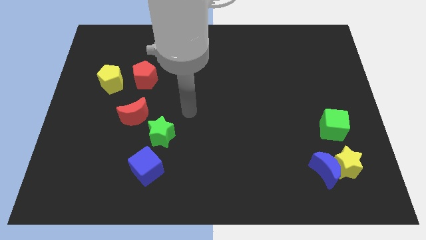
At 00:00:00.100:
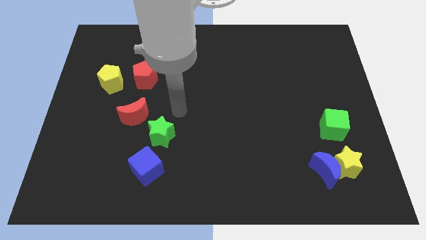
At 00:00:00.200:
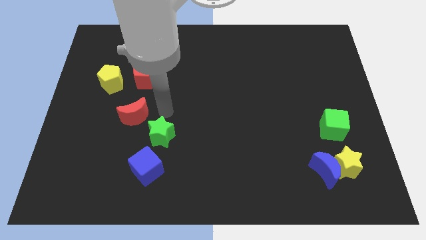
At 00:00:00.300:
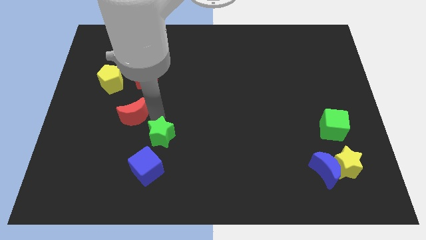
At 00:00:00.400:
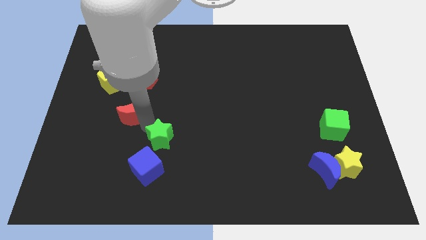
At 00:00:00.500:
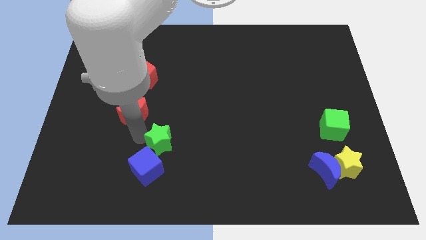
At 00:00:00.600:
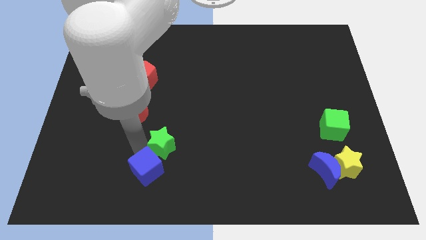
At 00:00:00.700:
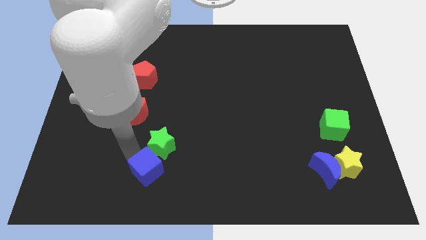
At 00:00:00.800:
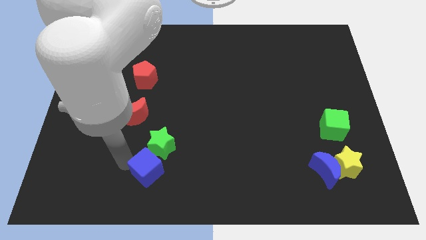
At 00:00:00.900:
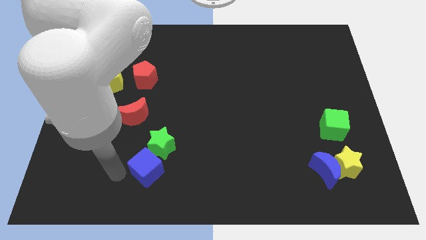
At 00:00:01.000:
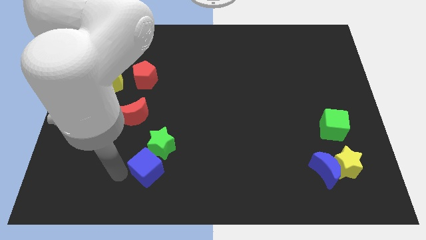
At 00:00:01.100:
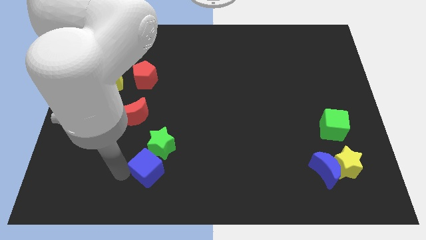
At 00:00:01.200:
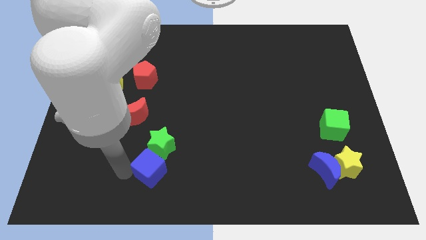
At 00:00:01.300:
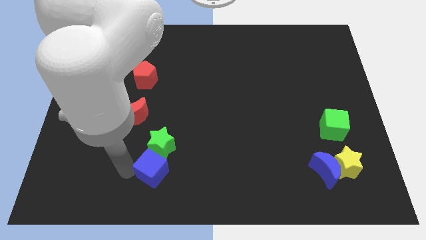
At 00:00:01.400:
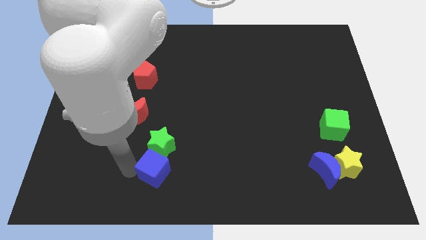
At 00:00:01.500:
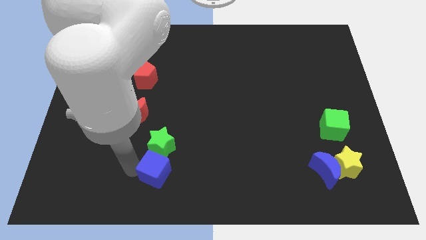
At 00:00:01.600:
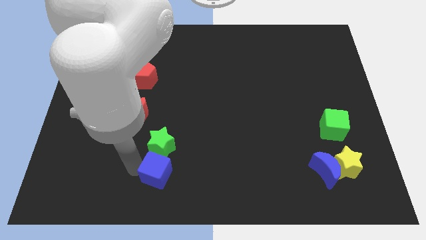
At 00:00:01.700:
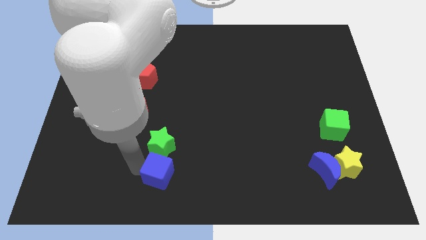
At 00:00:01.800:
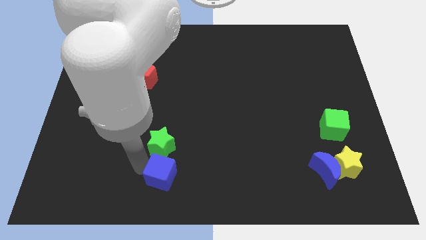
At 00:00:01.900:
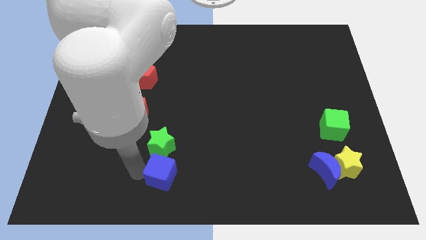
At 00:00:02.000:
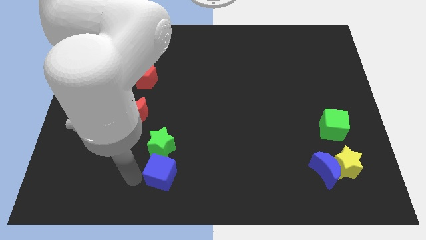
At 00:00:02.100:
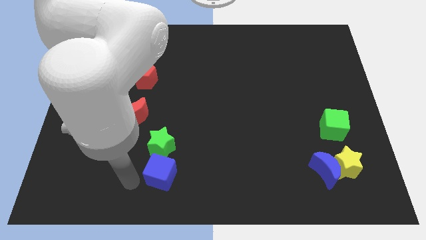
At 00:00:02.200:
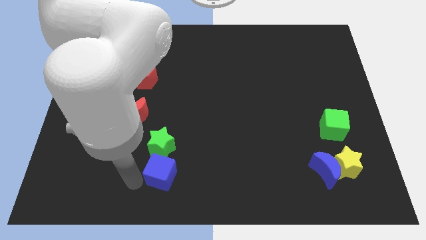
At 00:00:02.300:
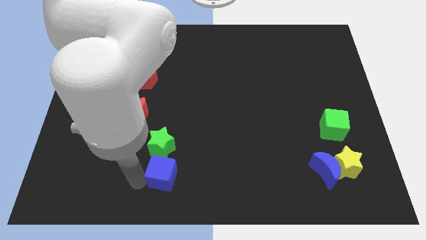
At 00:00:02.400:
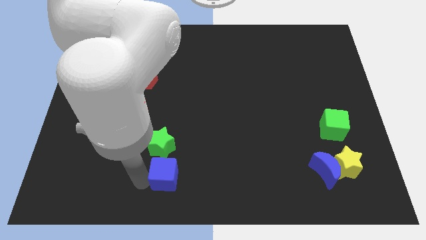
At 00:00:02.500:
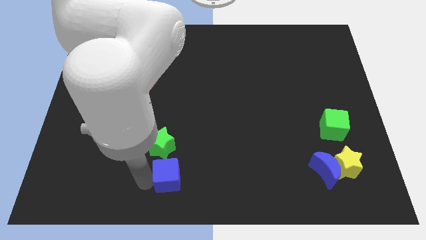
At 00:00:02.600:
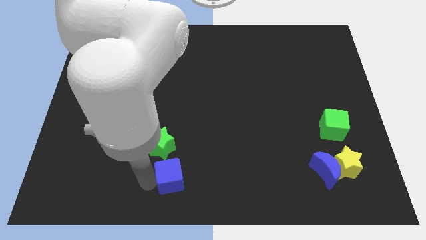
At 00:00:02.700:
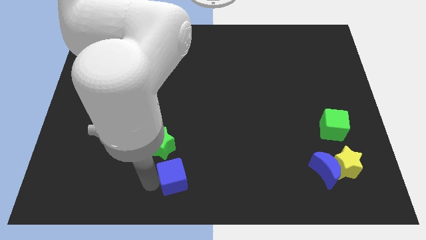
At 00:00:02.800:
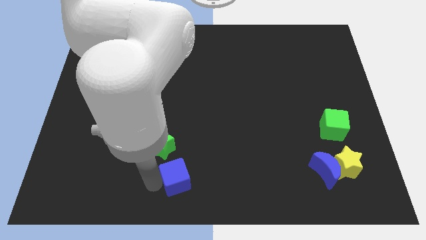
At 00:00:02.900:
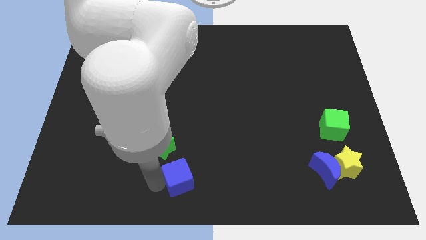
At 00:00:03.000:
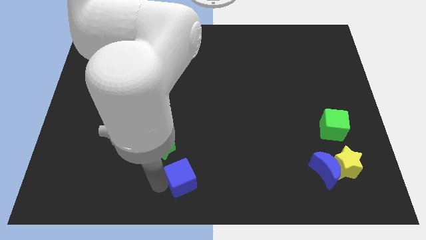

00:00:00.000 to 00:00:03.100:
move the blue cube slightly to the right

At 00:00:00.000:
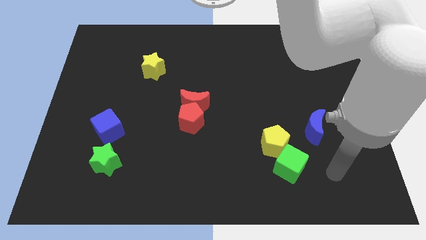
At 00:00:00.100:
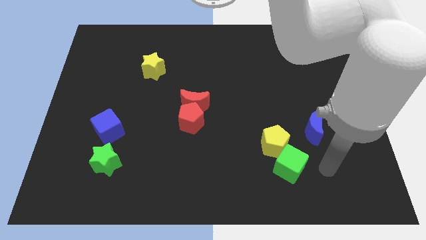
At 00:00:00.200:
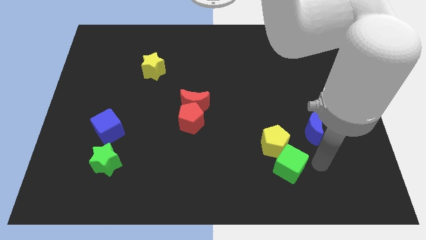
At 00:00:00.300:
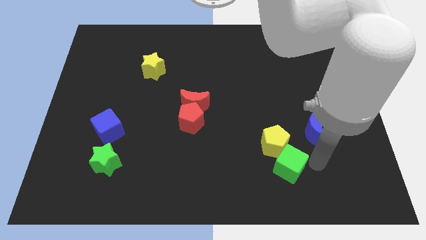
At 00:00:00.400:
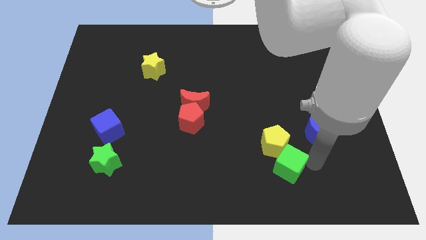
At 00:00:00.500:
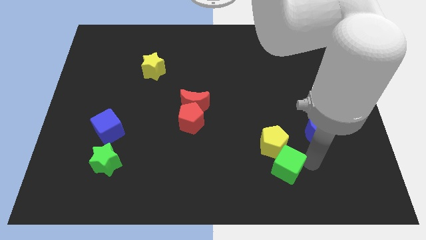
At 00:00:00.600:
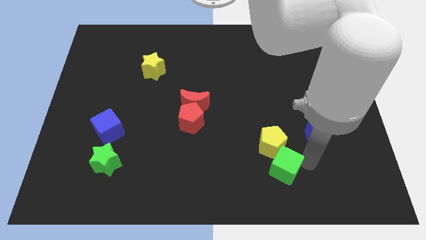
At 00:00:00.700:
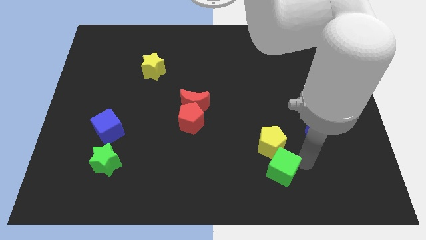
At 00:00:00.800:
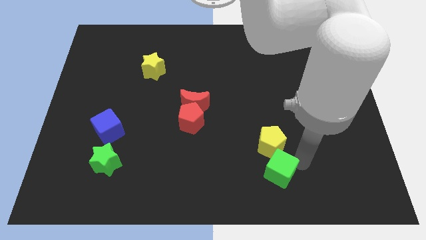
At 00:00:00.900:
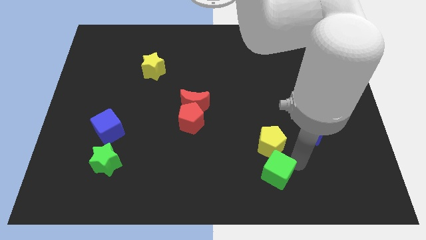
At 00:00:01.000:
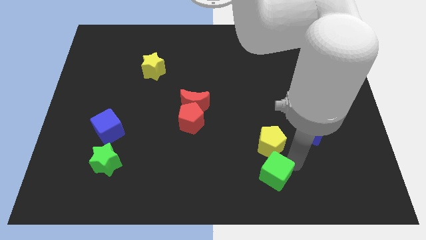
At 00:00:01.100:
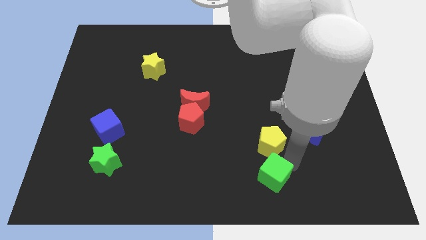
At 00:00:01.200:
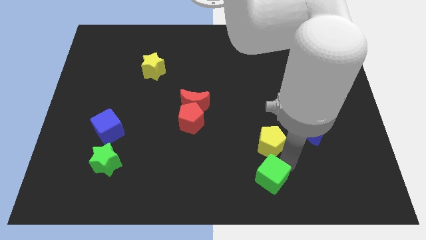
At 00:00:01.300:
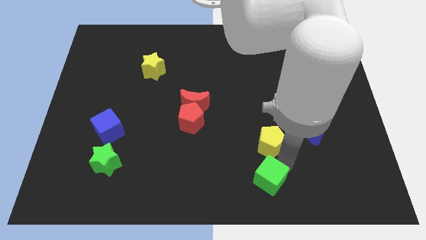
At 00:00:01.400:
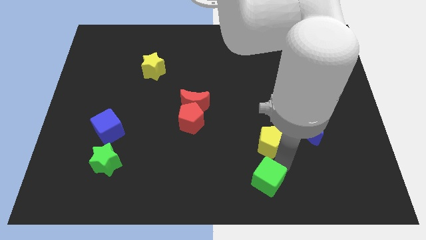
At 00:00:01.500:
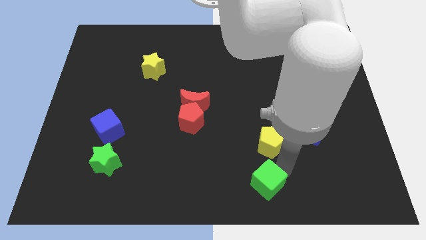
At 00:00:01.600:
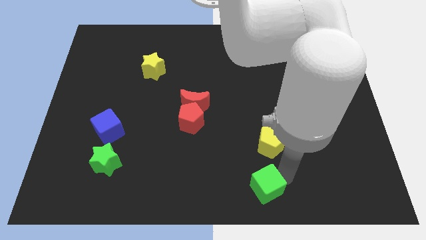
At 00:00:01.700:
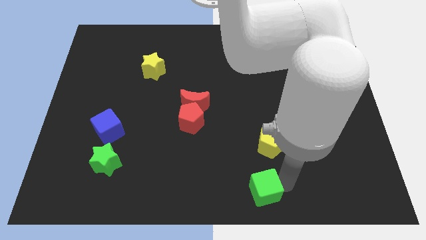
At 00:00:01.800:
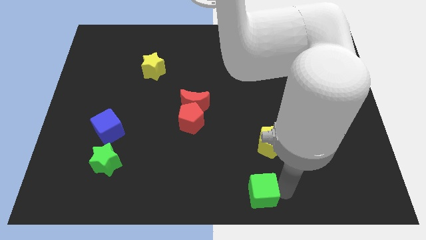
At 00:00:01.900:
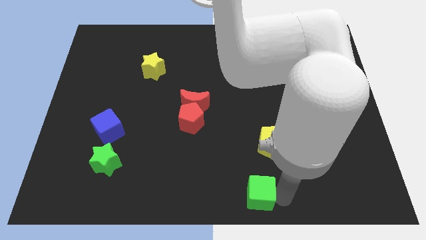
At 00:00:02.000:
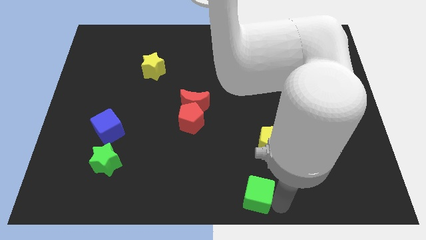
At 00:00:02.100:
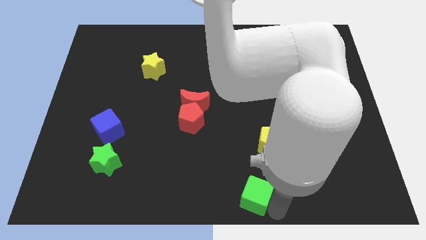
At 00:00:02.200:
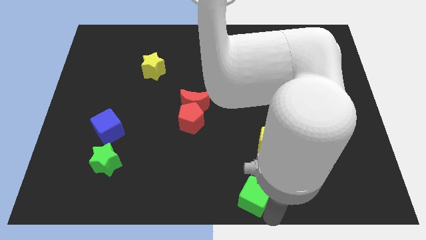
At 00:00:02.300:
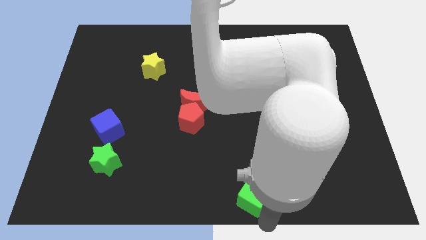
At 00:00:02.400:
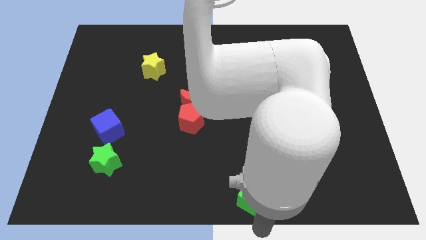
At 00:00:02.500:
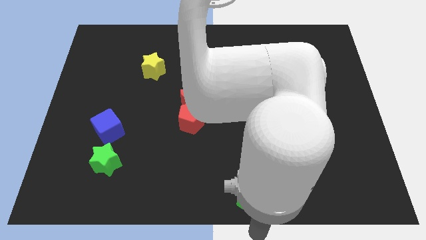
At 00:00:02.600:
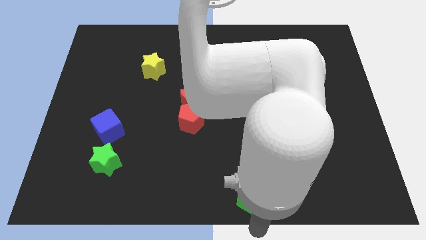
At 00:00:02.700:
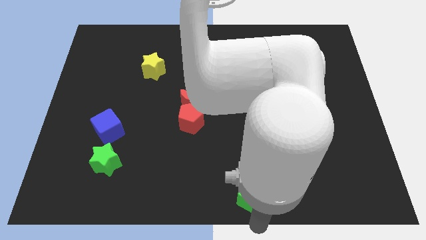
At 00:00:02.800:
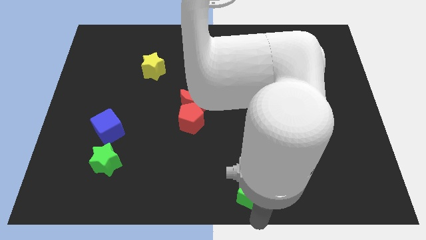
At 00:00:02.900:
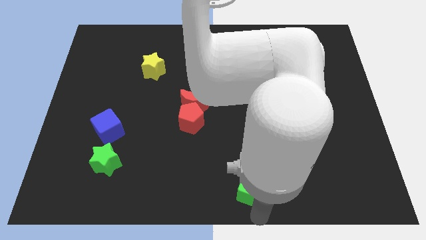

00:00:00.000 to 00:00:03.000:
move the green cube a little left

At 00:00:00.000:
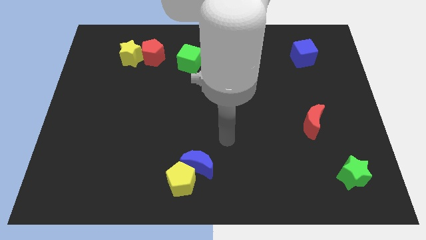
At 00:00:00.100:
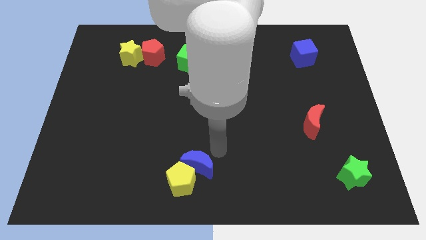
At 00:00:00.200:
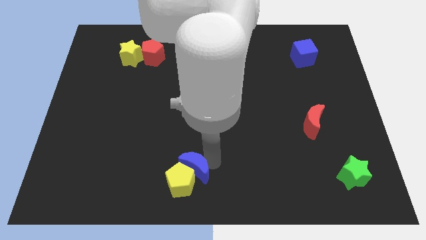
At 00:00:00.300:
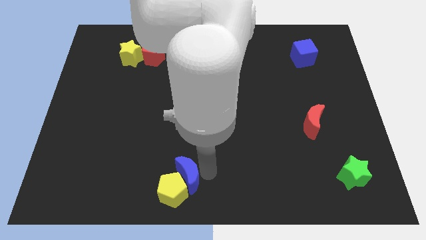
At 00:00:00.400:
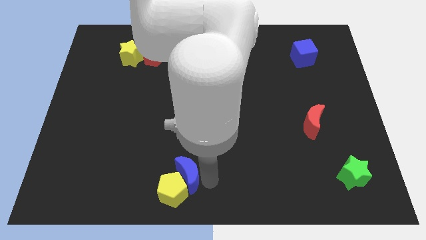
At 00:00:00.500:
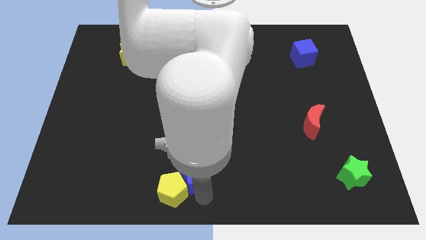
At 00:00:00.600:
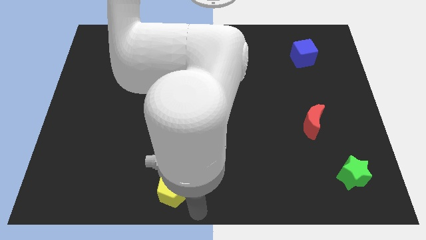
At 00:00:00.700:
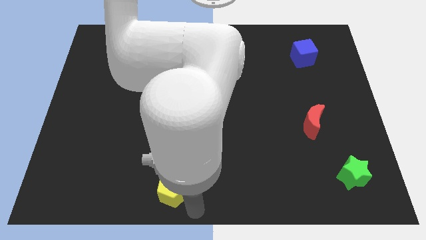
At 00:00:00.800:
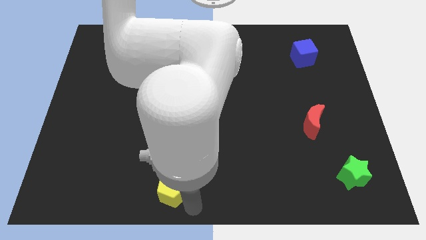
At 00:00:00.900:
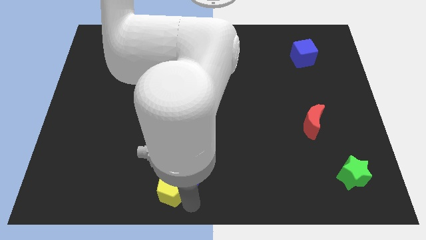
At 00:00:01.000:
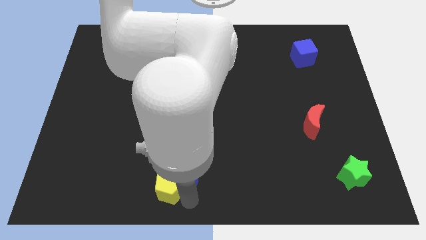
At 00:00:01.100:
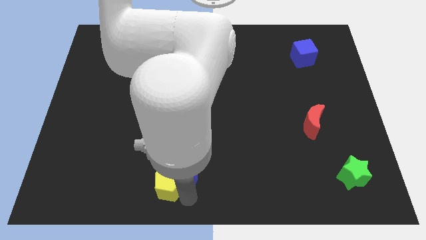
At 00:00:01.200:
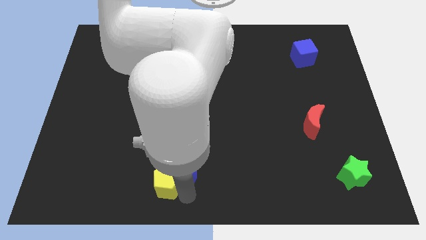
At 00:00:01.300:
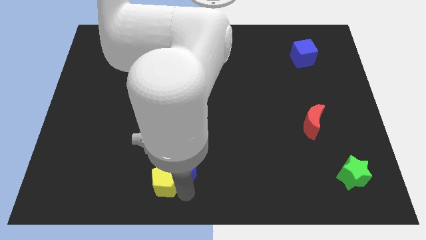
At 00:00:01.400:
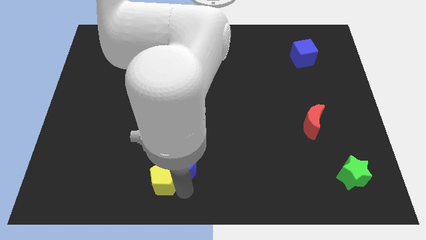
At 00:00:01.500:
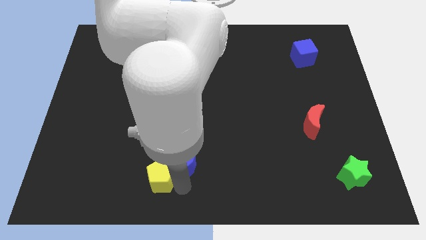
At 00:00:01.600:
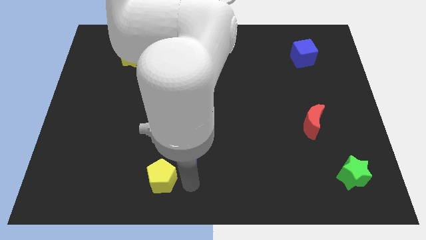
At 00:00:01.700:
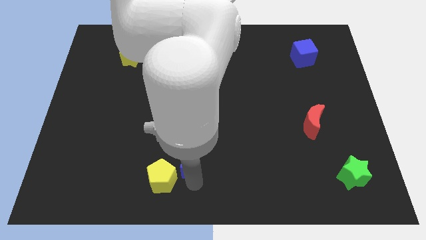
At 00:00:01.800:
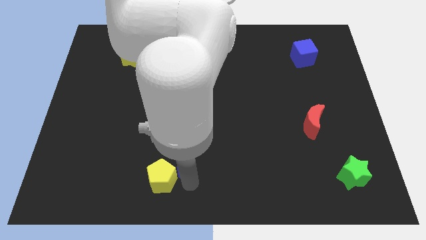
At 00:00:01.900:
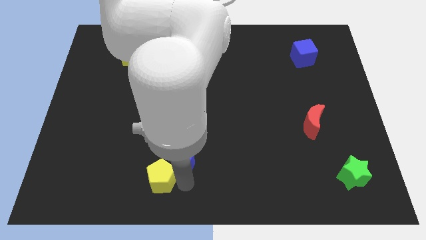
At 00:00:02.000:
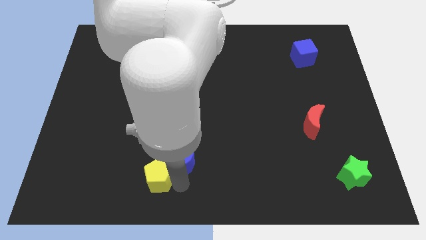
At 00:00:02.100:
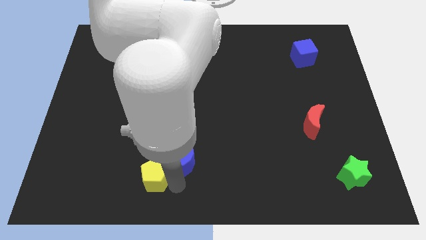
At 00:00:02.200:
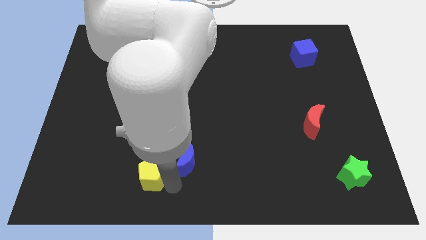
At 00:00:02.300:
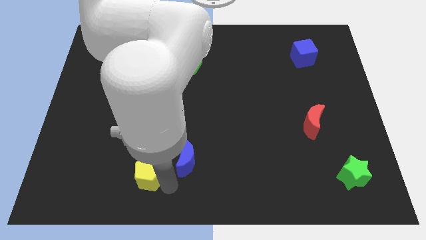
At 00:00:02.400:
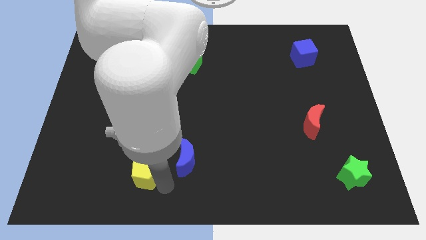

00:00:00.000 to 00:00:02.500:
slightly move the yellow pentagon left
